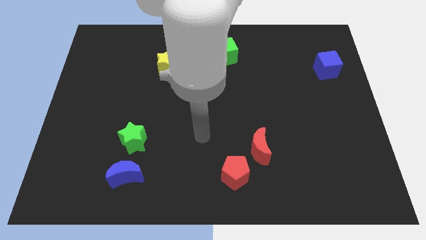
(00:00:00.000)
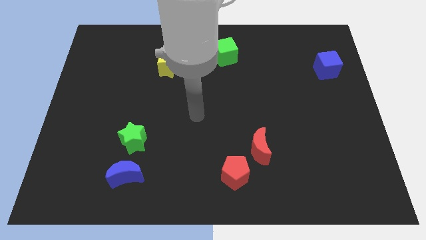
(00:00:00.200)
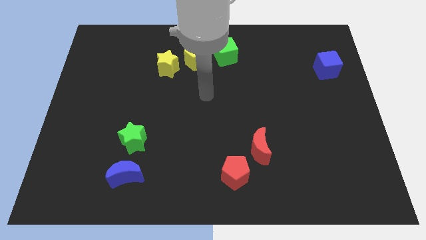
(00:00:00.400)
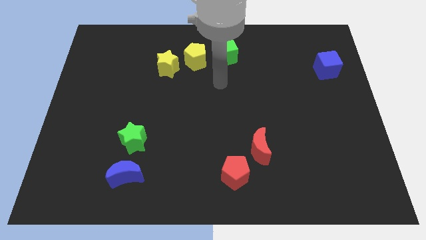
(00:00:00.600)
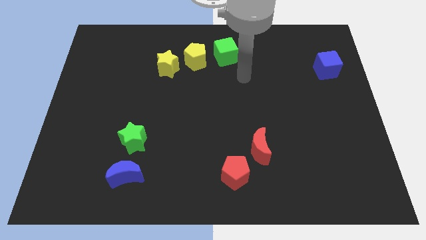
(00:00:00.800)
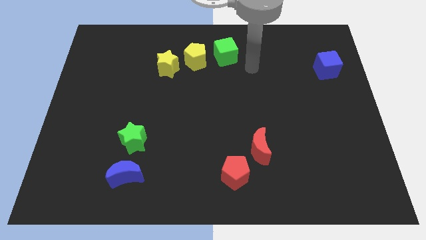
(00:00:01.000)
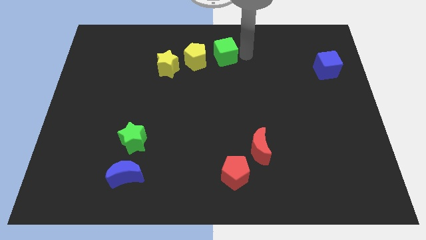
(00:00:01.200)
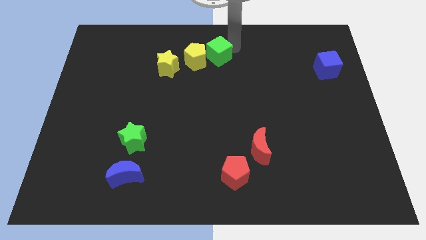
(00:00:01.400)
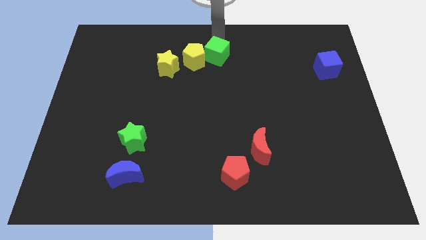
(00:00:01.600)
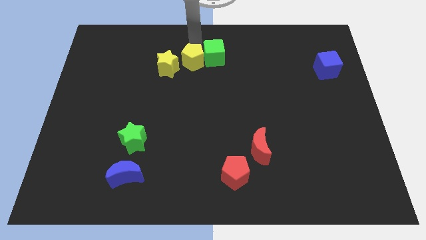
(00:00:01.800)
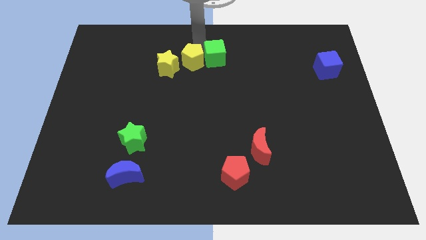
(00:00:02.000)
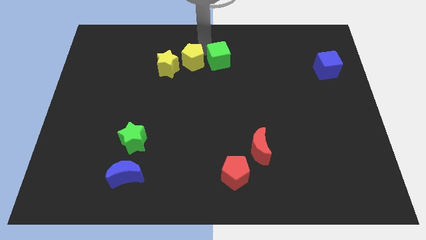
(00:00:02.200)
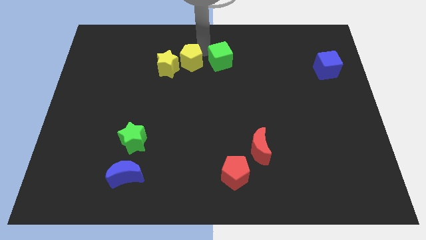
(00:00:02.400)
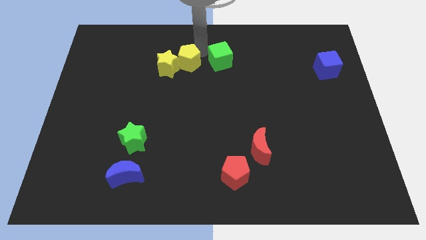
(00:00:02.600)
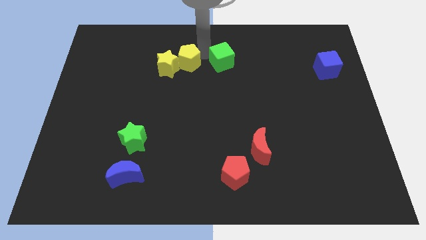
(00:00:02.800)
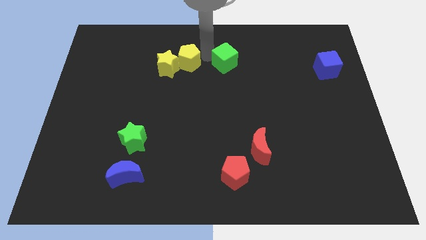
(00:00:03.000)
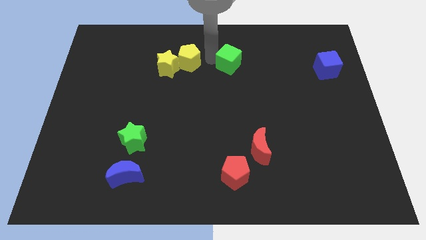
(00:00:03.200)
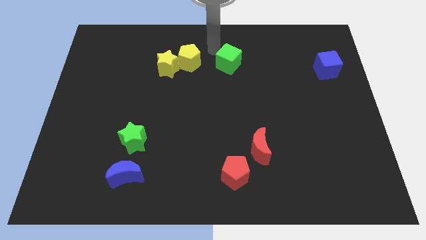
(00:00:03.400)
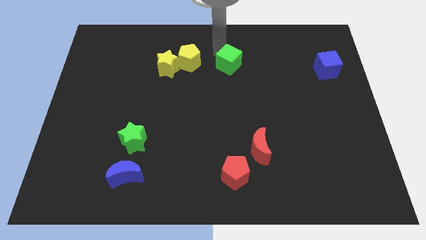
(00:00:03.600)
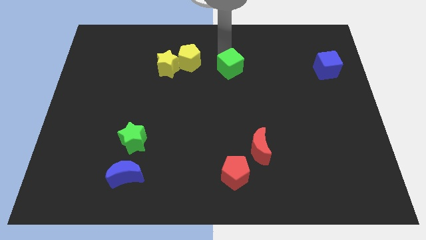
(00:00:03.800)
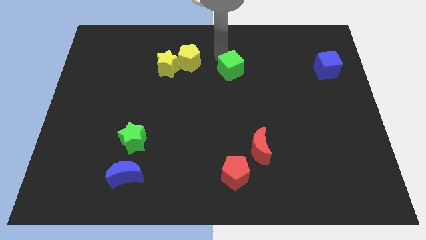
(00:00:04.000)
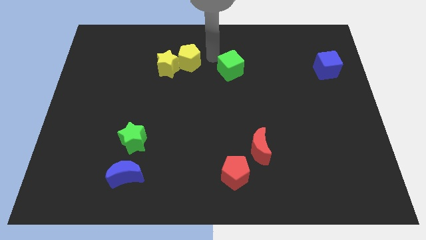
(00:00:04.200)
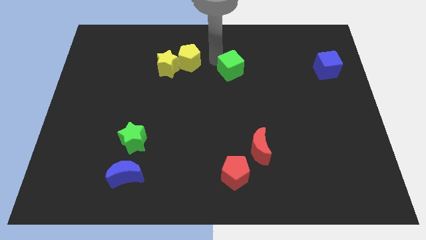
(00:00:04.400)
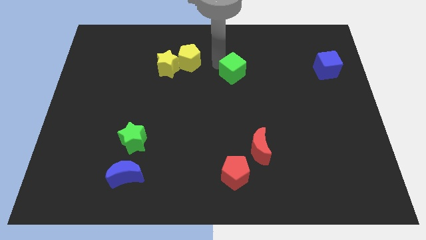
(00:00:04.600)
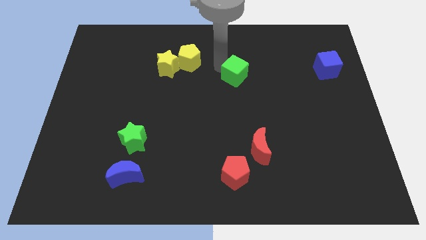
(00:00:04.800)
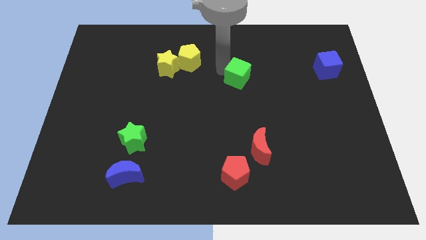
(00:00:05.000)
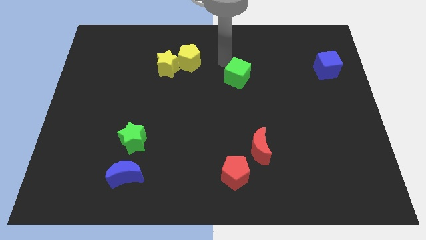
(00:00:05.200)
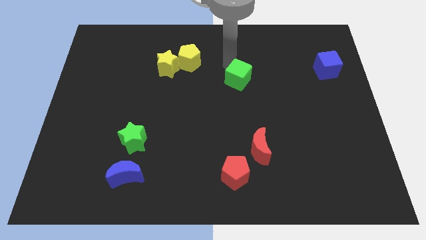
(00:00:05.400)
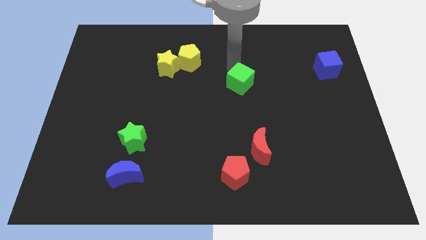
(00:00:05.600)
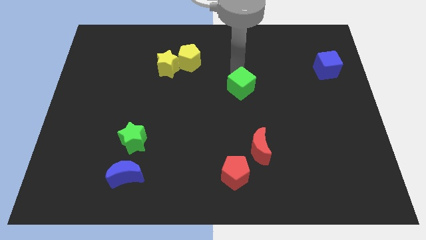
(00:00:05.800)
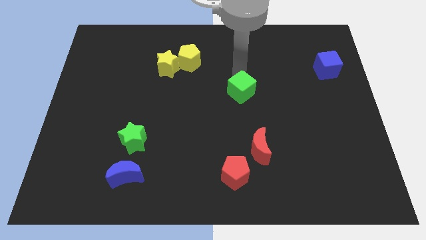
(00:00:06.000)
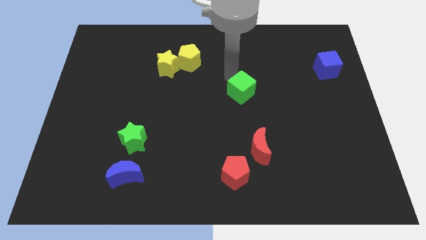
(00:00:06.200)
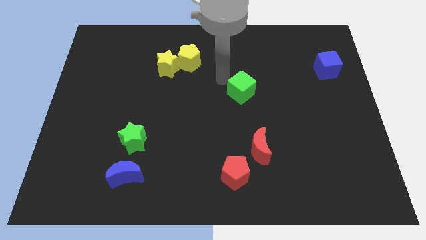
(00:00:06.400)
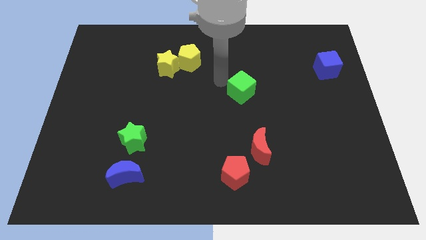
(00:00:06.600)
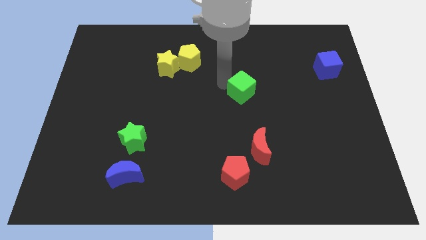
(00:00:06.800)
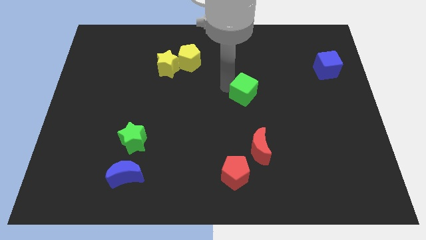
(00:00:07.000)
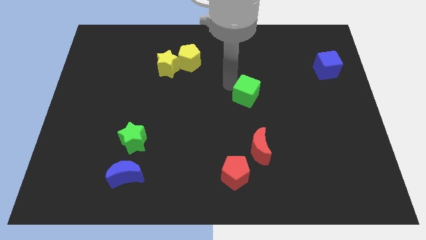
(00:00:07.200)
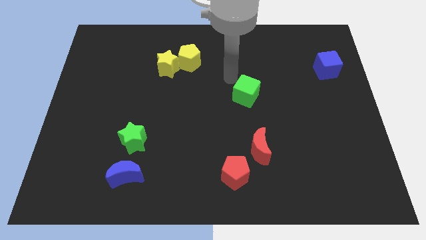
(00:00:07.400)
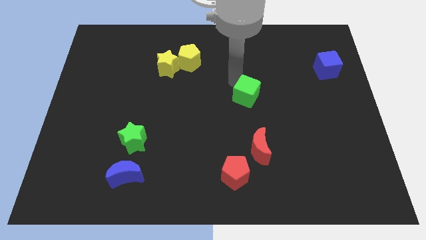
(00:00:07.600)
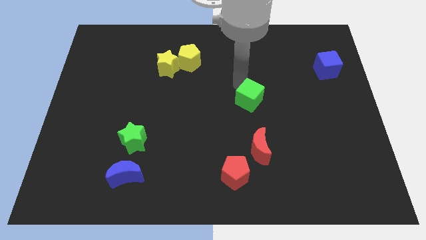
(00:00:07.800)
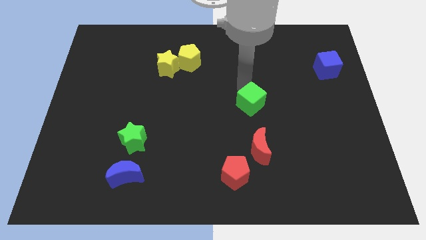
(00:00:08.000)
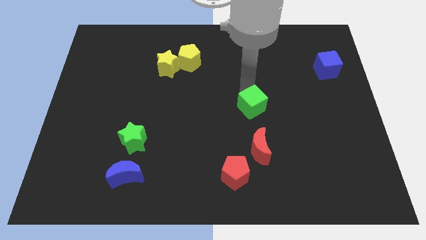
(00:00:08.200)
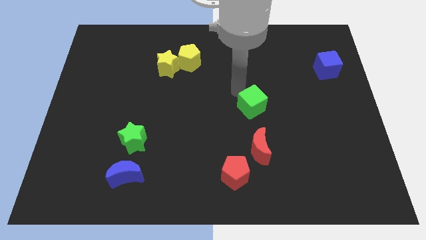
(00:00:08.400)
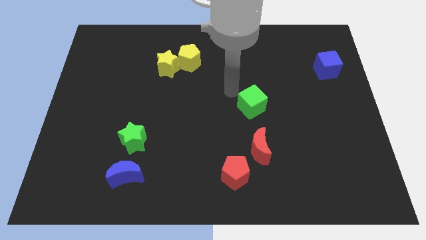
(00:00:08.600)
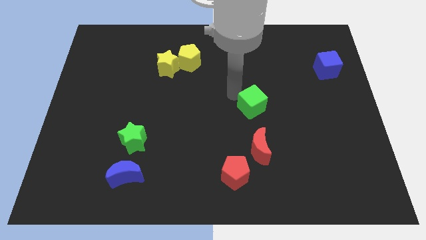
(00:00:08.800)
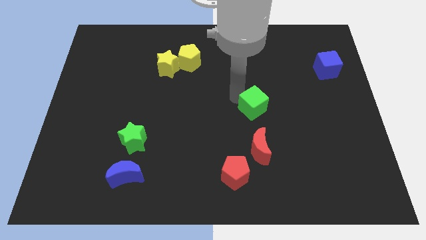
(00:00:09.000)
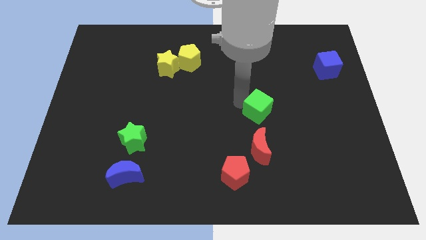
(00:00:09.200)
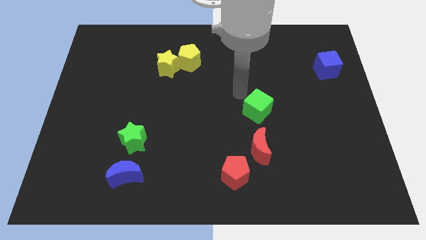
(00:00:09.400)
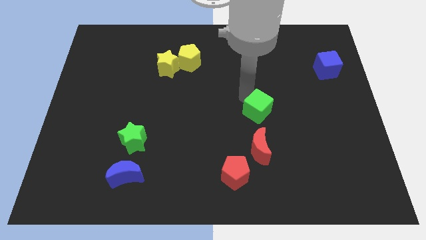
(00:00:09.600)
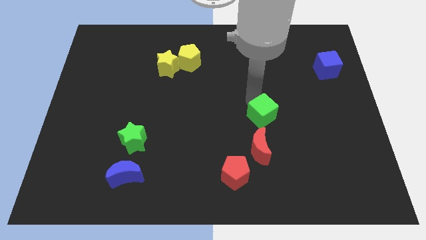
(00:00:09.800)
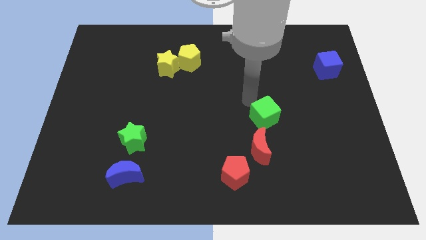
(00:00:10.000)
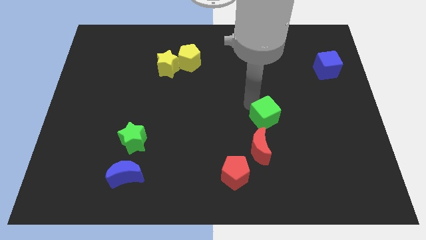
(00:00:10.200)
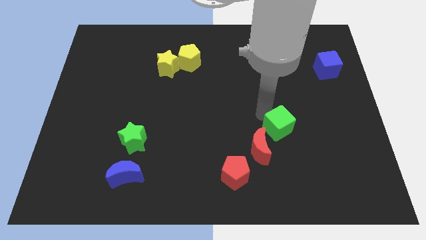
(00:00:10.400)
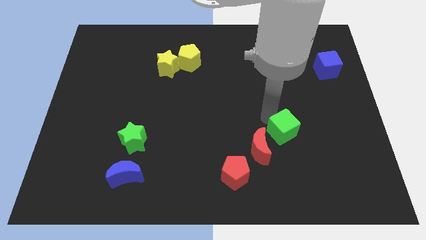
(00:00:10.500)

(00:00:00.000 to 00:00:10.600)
push the green cube right of the red moon

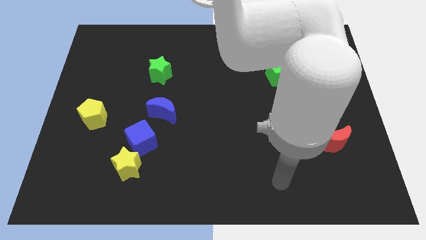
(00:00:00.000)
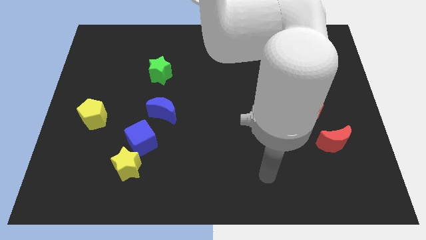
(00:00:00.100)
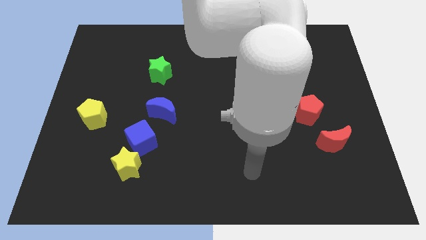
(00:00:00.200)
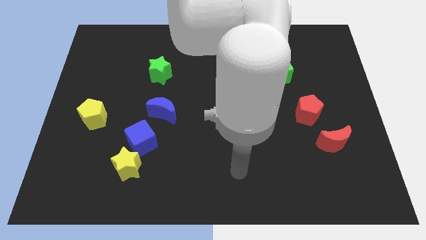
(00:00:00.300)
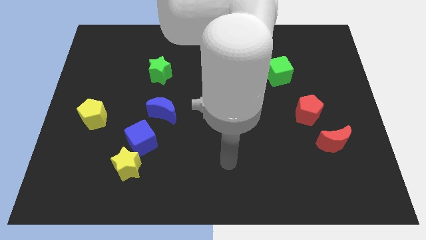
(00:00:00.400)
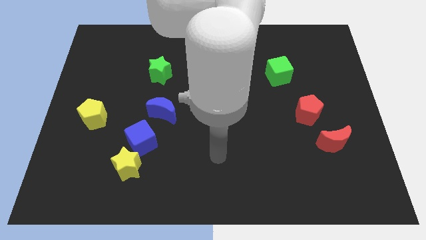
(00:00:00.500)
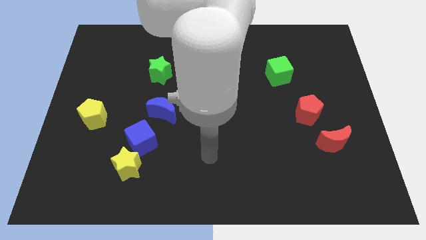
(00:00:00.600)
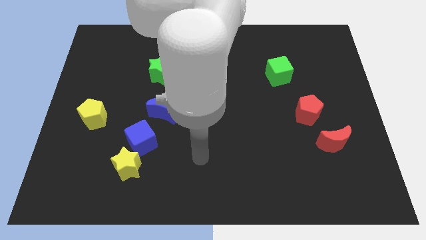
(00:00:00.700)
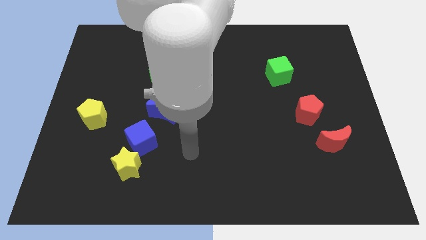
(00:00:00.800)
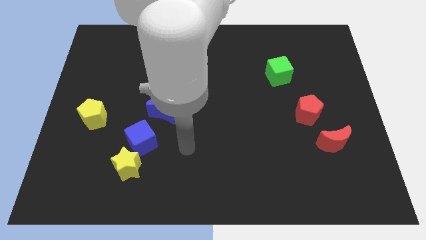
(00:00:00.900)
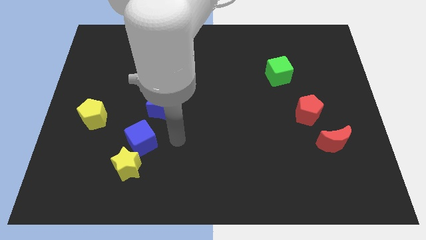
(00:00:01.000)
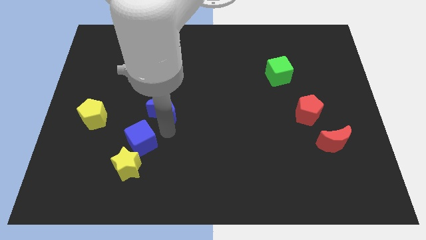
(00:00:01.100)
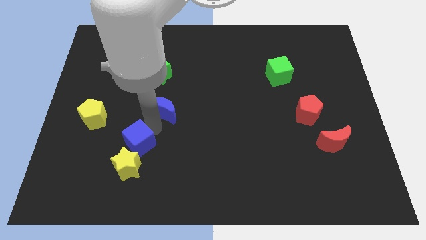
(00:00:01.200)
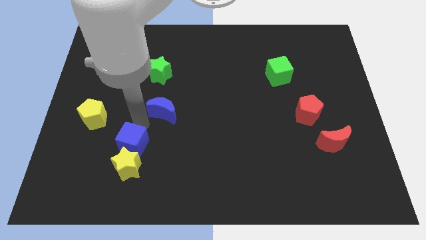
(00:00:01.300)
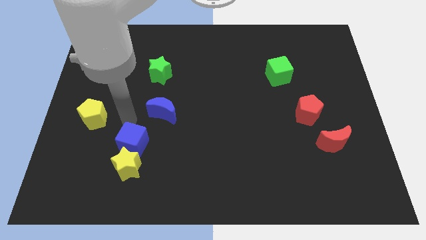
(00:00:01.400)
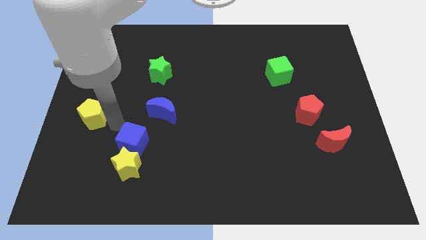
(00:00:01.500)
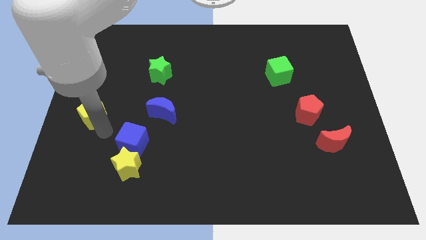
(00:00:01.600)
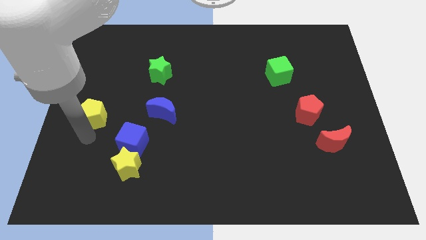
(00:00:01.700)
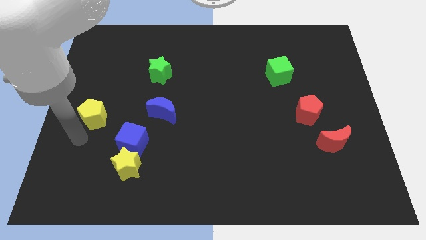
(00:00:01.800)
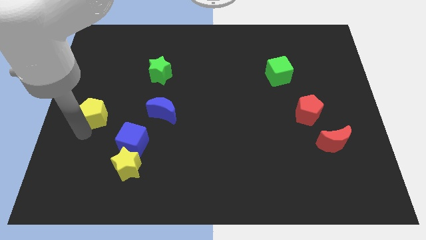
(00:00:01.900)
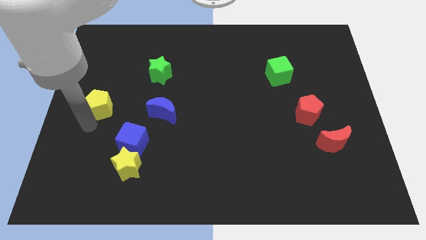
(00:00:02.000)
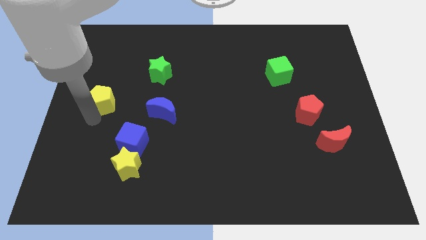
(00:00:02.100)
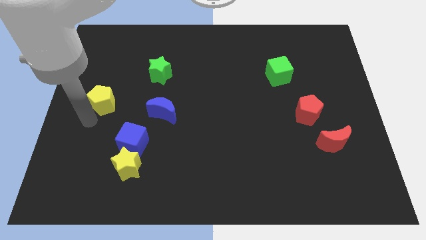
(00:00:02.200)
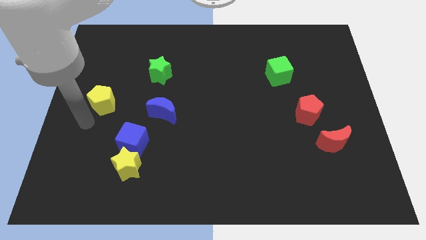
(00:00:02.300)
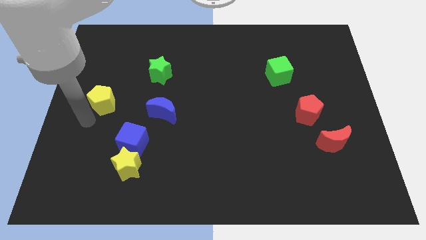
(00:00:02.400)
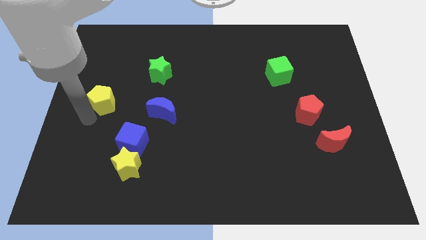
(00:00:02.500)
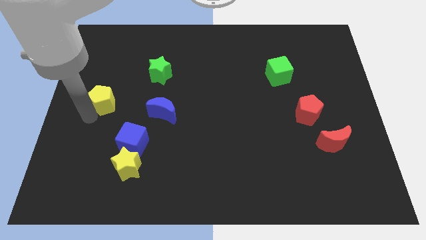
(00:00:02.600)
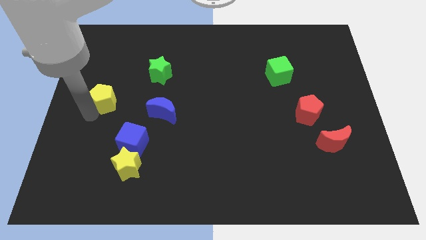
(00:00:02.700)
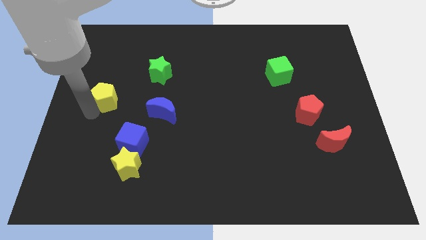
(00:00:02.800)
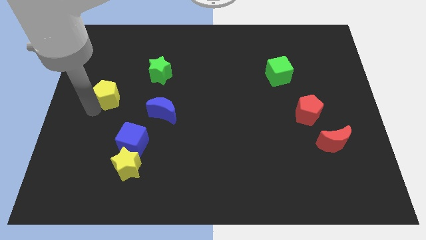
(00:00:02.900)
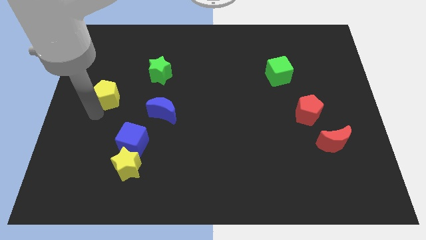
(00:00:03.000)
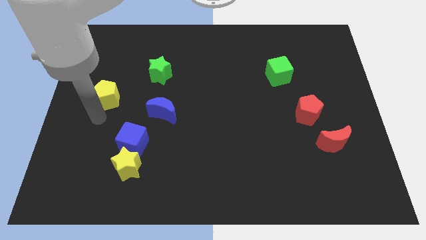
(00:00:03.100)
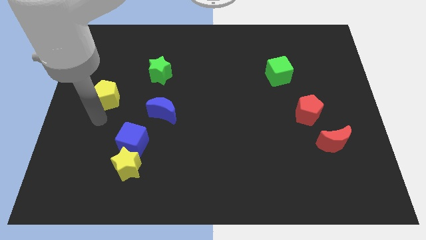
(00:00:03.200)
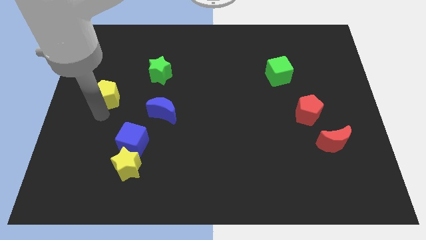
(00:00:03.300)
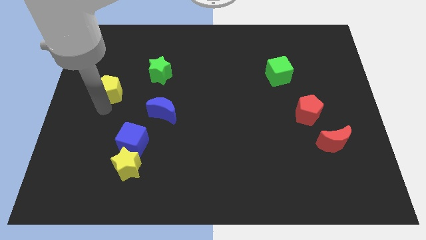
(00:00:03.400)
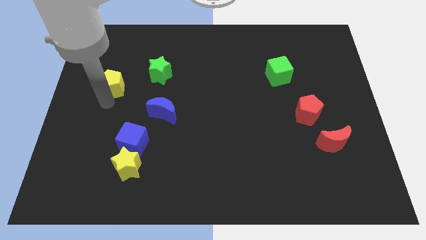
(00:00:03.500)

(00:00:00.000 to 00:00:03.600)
slide the yellow pentagon left of the green star
